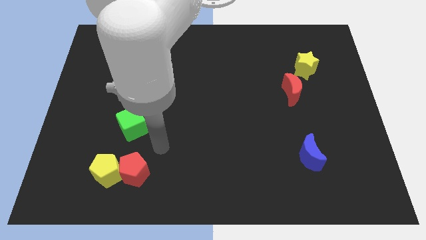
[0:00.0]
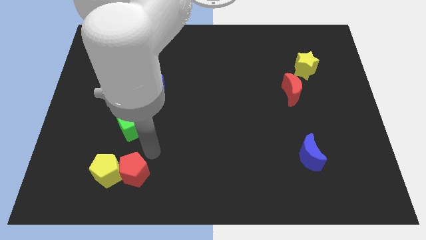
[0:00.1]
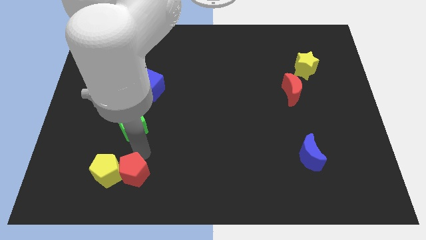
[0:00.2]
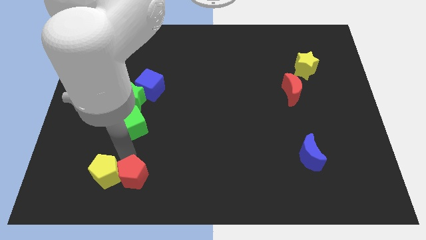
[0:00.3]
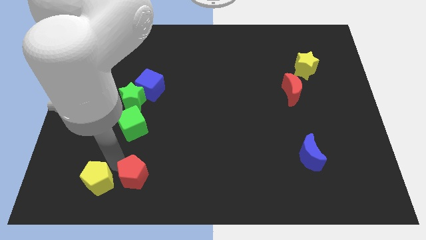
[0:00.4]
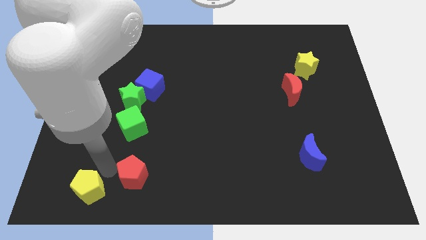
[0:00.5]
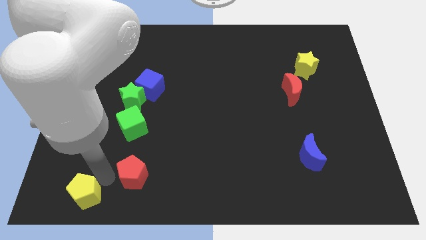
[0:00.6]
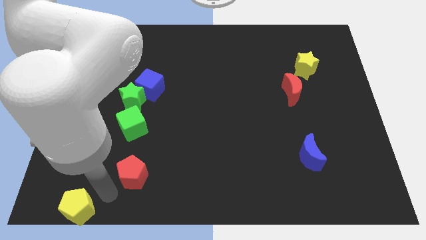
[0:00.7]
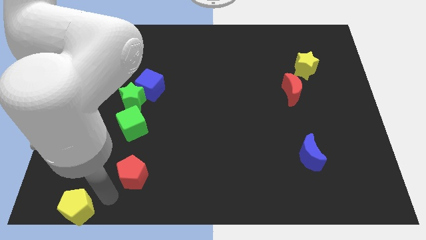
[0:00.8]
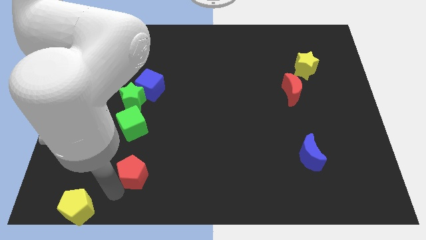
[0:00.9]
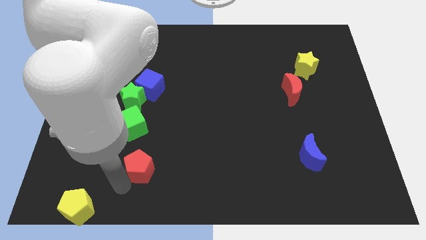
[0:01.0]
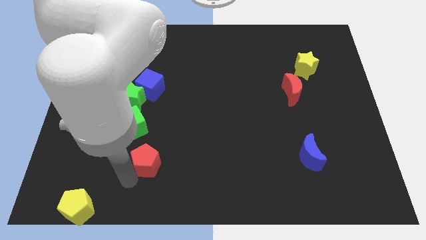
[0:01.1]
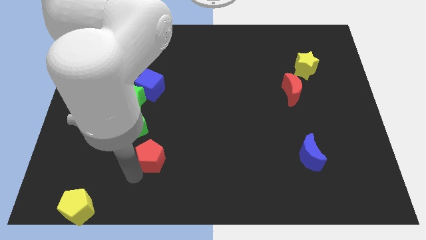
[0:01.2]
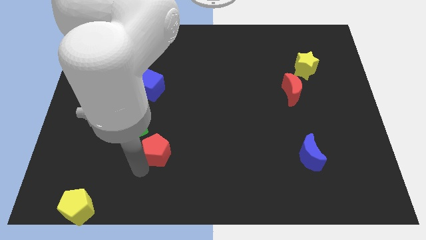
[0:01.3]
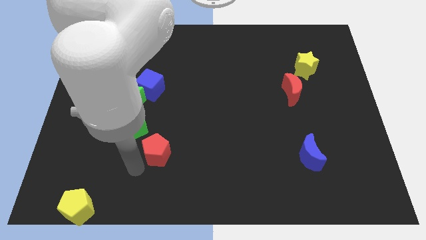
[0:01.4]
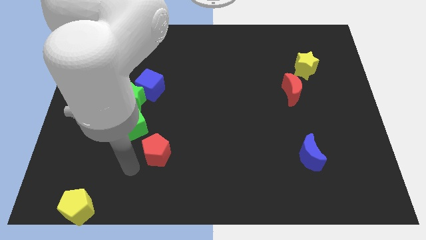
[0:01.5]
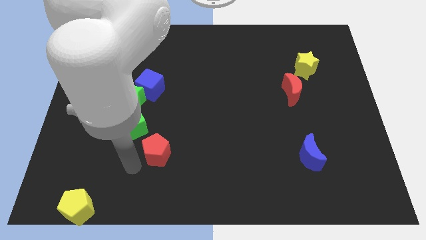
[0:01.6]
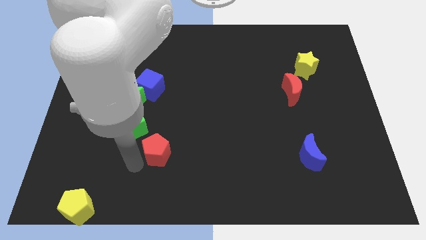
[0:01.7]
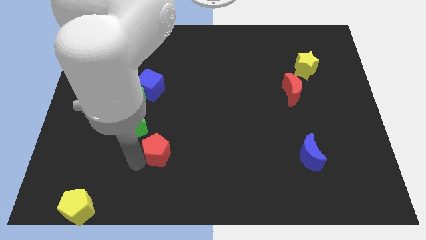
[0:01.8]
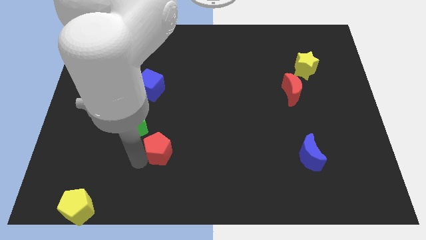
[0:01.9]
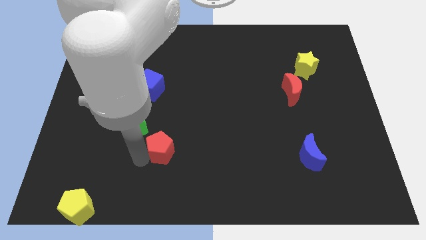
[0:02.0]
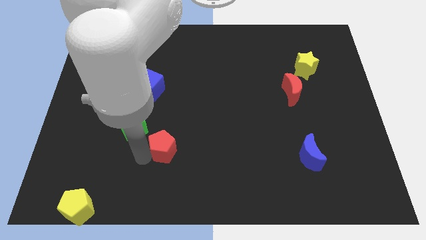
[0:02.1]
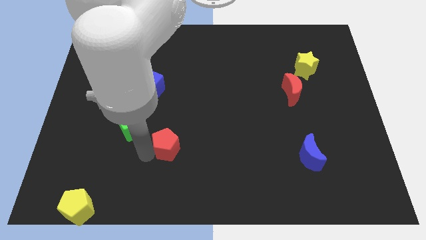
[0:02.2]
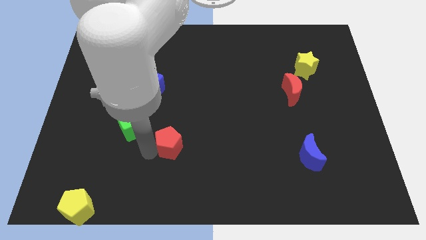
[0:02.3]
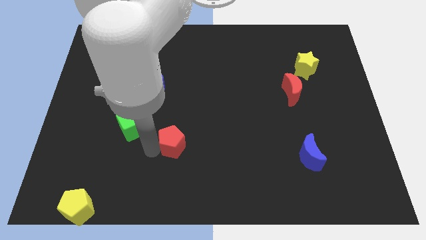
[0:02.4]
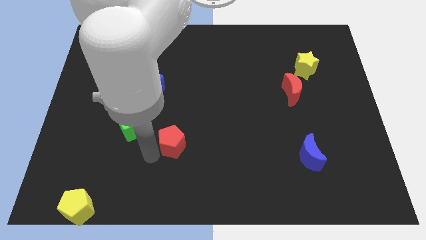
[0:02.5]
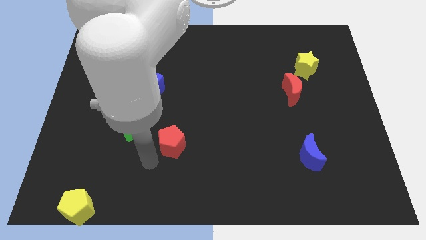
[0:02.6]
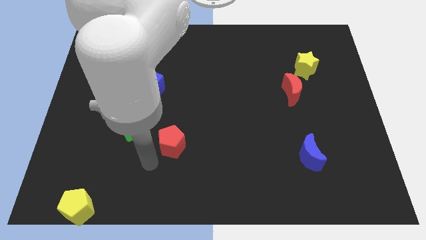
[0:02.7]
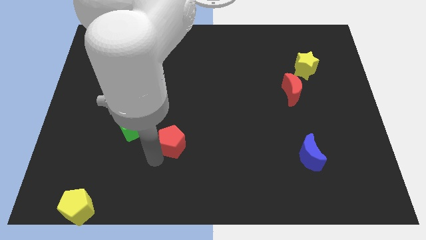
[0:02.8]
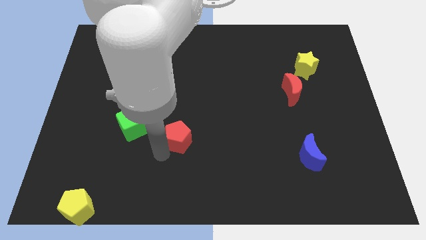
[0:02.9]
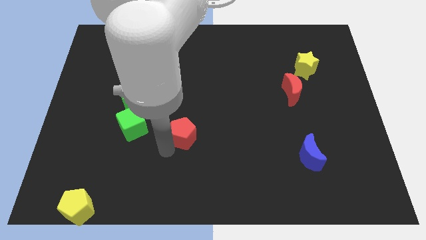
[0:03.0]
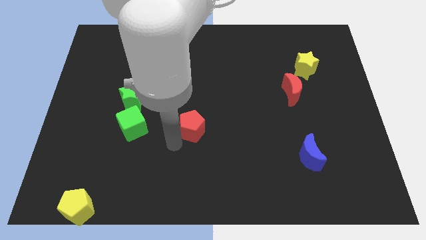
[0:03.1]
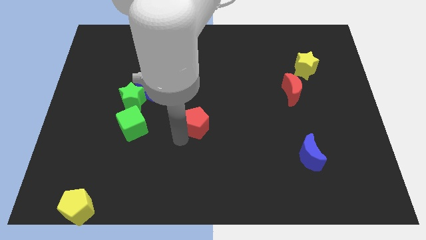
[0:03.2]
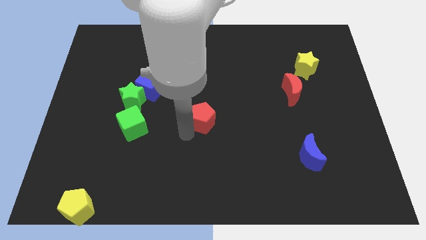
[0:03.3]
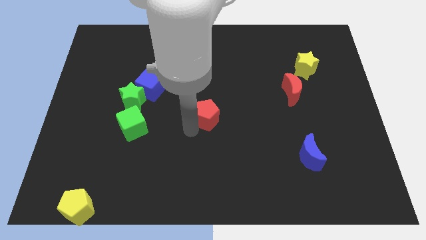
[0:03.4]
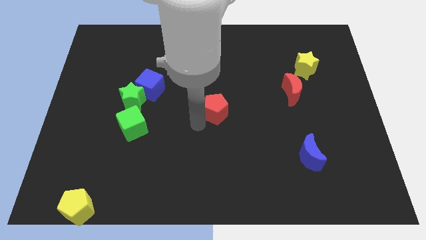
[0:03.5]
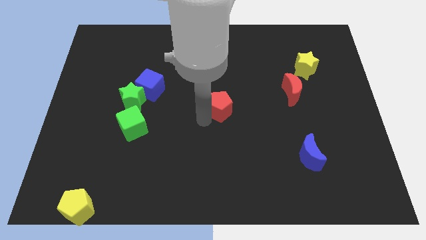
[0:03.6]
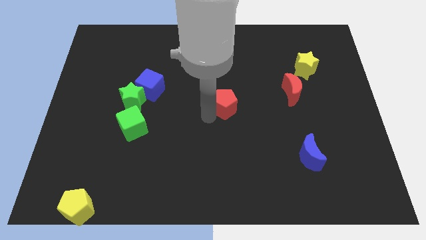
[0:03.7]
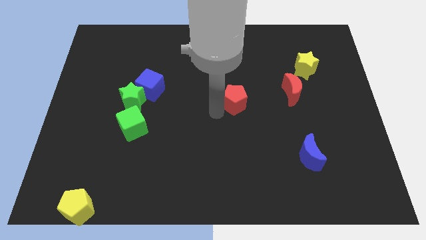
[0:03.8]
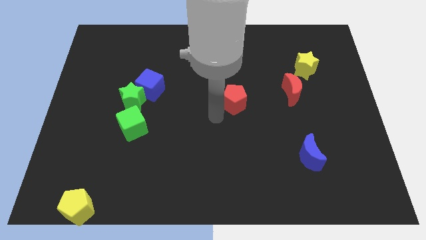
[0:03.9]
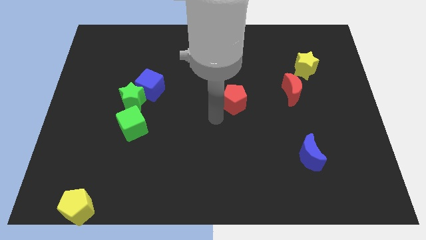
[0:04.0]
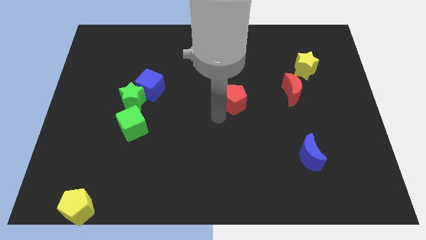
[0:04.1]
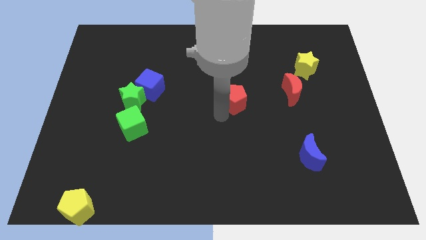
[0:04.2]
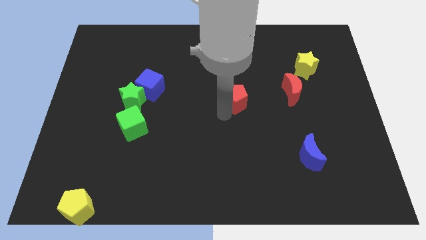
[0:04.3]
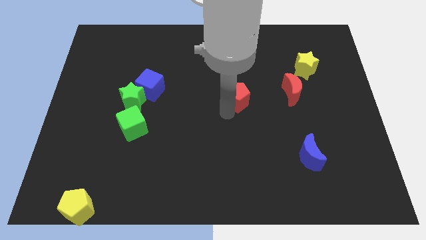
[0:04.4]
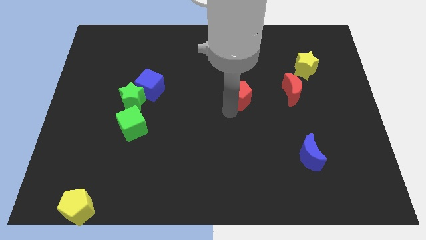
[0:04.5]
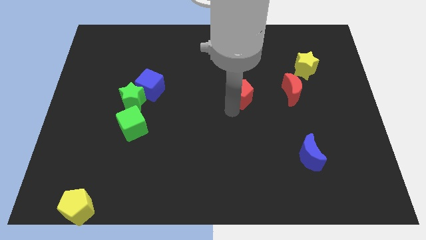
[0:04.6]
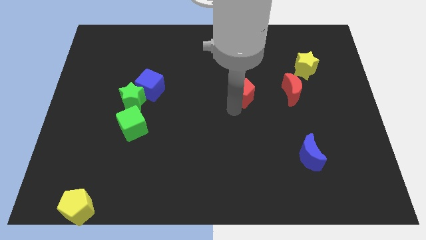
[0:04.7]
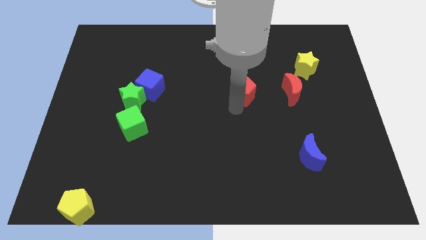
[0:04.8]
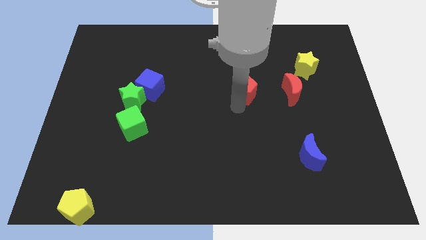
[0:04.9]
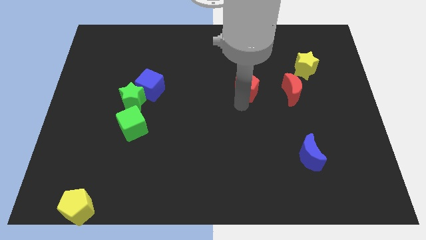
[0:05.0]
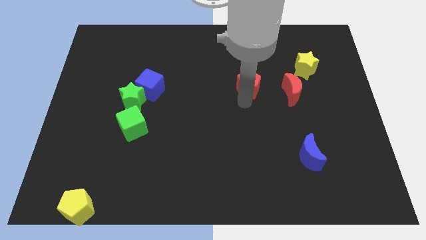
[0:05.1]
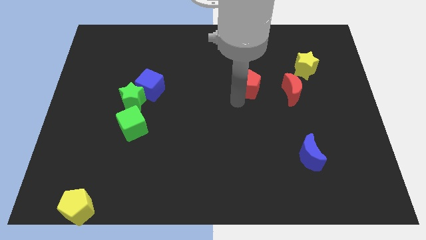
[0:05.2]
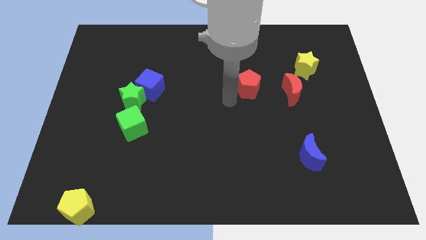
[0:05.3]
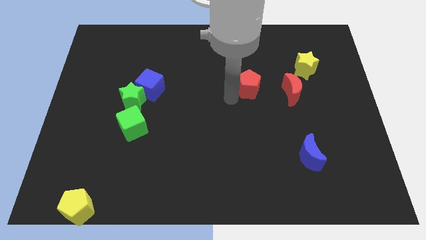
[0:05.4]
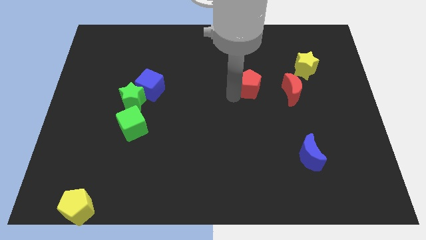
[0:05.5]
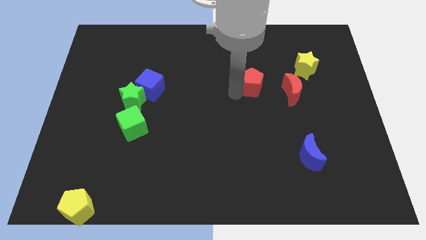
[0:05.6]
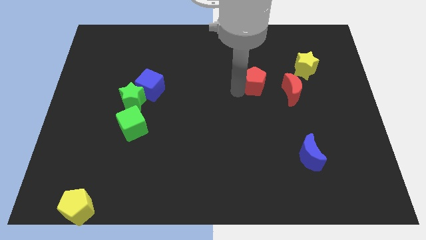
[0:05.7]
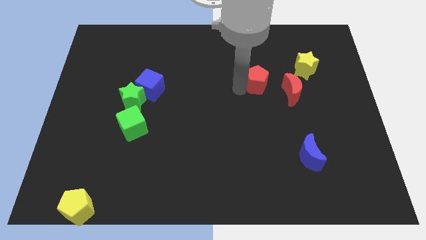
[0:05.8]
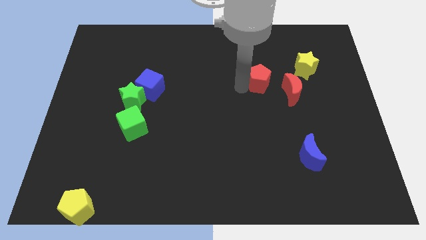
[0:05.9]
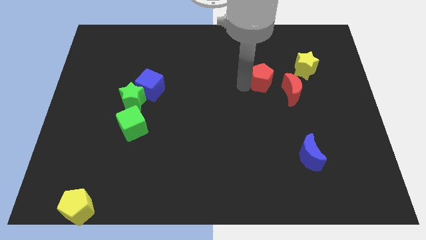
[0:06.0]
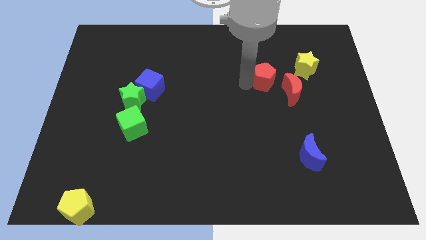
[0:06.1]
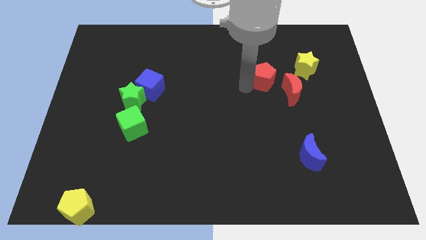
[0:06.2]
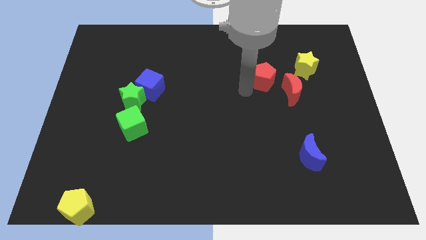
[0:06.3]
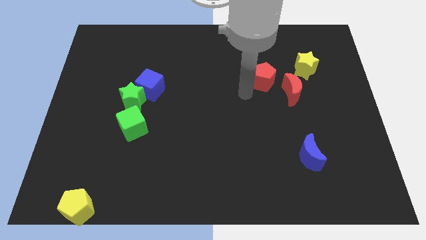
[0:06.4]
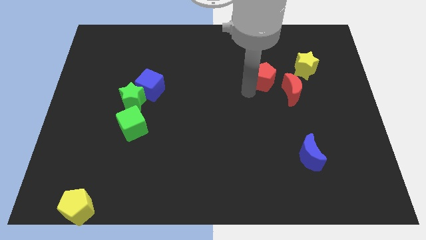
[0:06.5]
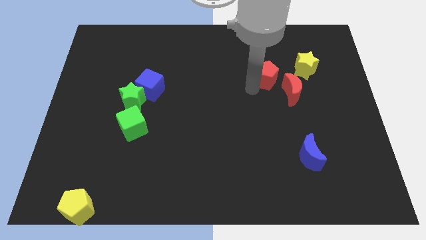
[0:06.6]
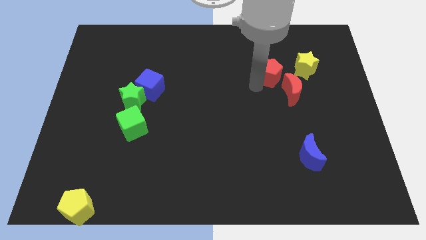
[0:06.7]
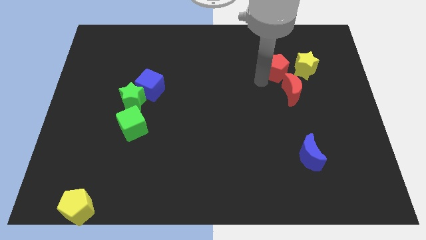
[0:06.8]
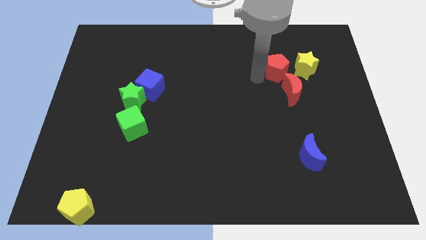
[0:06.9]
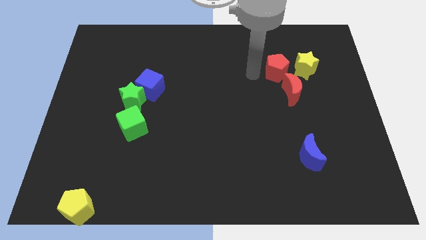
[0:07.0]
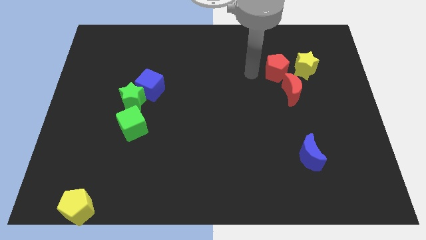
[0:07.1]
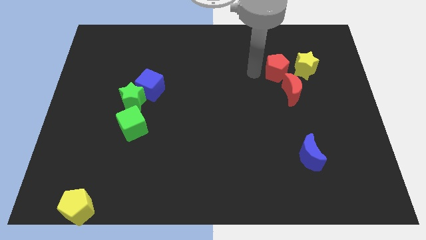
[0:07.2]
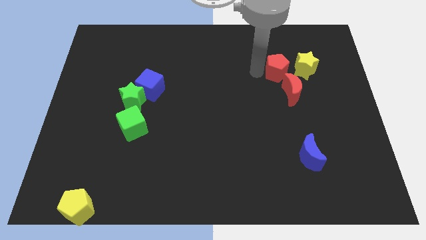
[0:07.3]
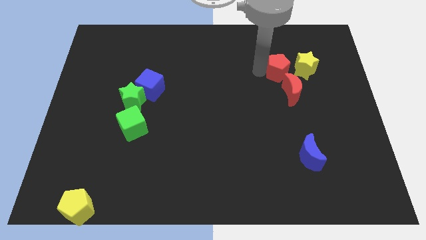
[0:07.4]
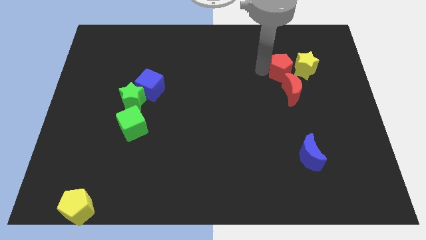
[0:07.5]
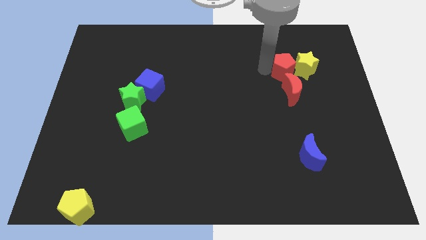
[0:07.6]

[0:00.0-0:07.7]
move the red pentagon to the yellow star

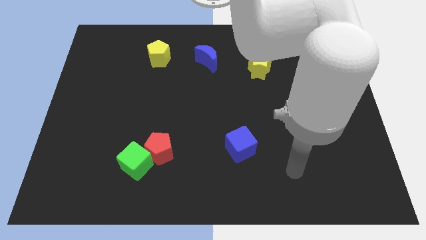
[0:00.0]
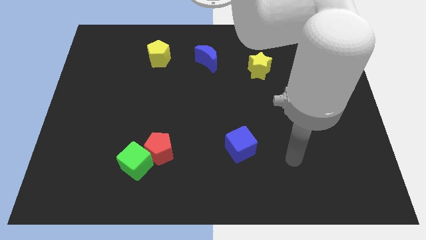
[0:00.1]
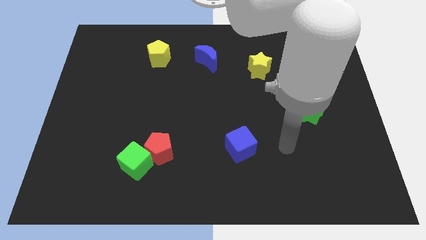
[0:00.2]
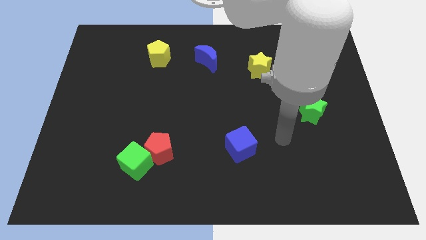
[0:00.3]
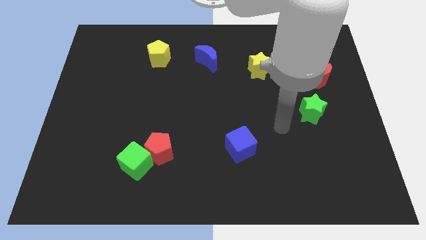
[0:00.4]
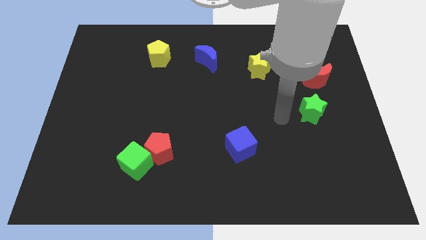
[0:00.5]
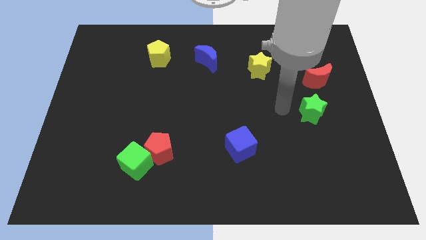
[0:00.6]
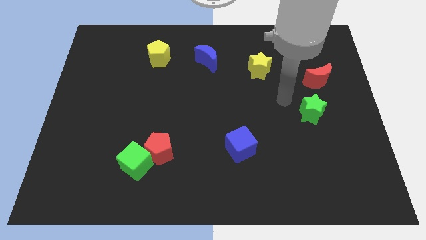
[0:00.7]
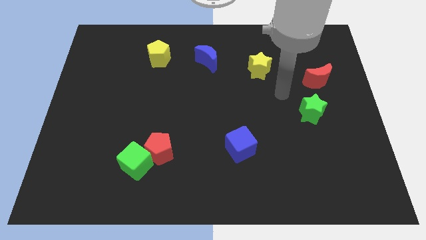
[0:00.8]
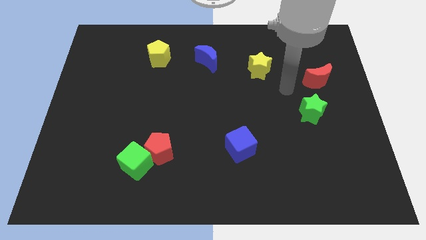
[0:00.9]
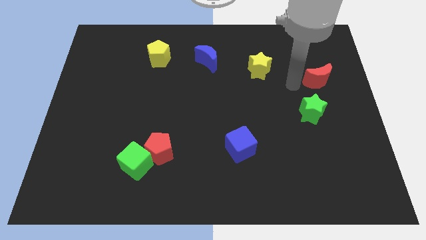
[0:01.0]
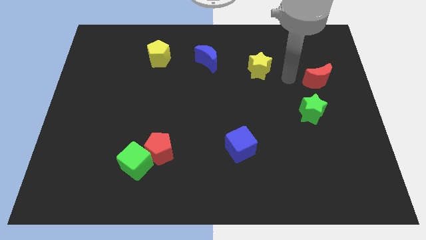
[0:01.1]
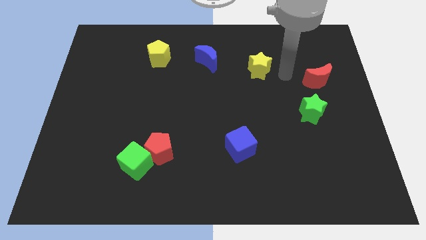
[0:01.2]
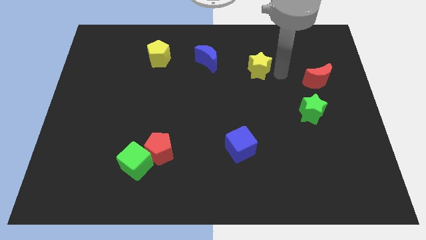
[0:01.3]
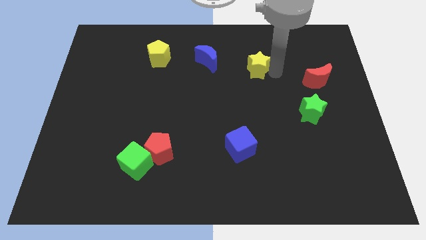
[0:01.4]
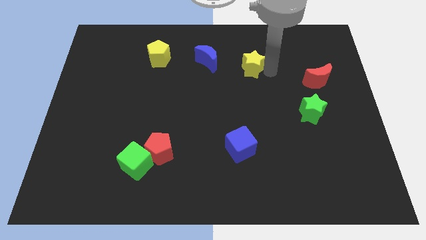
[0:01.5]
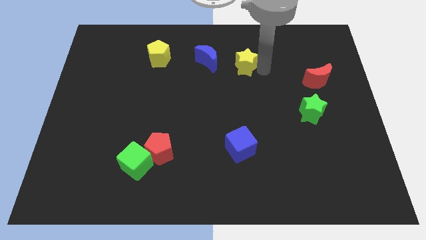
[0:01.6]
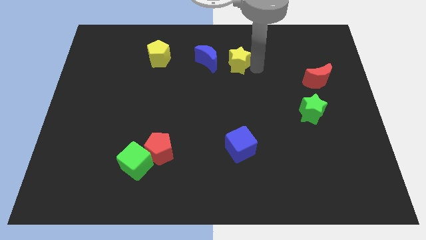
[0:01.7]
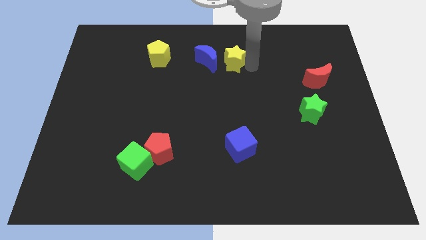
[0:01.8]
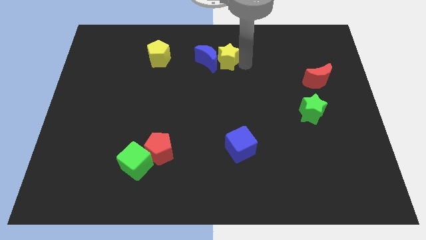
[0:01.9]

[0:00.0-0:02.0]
move the yellow star towards the blue moon
